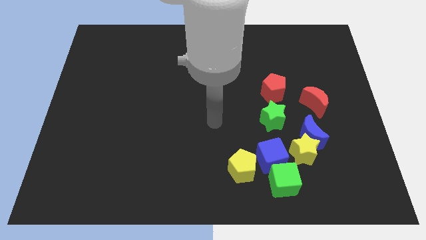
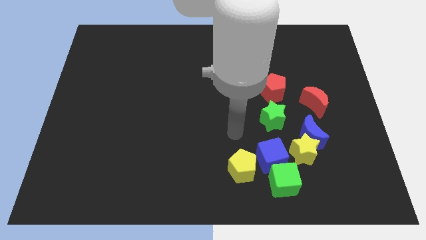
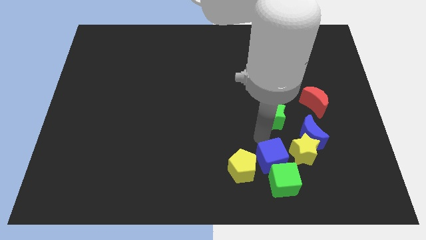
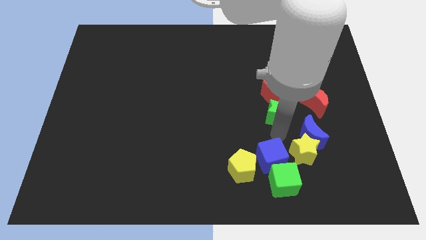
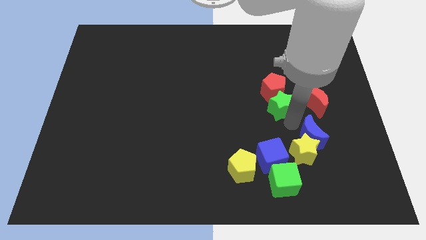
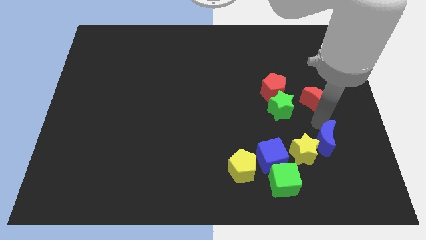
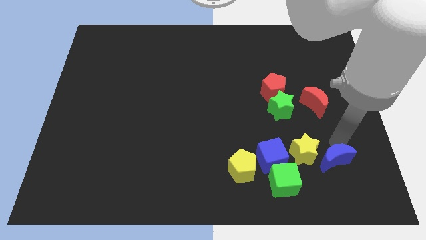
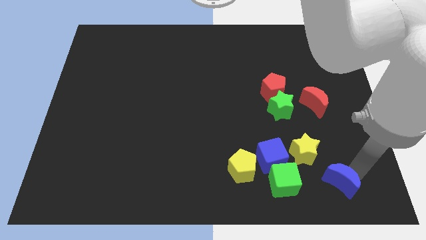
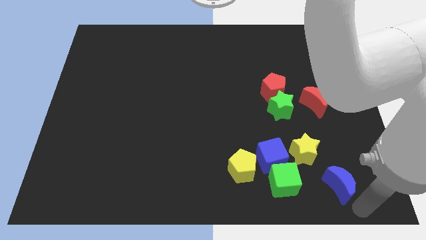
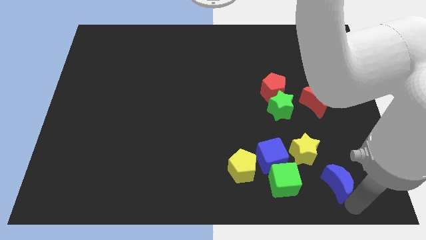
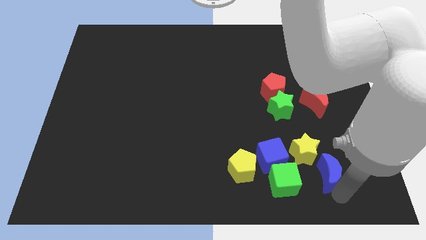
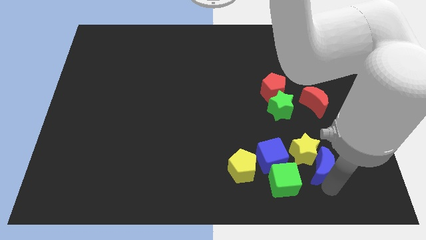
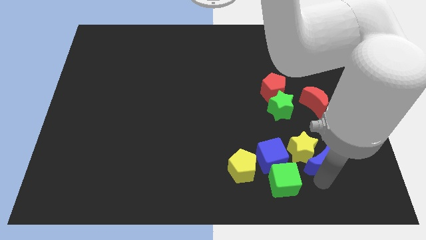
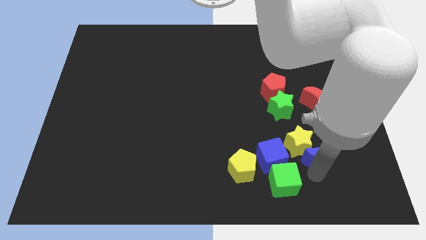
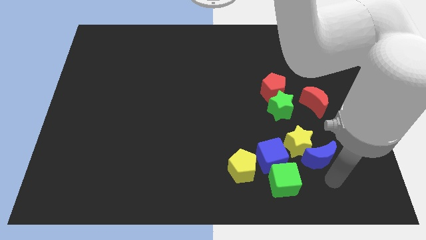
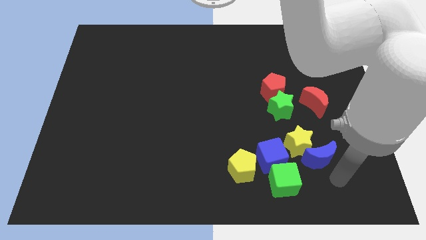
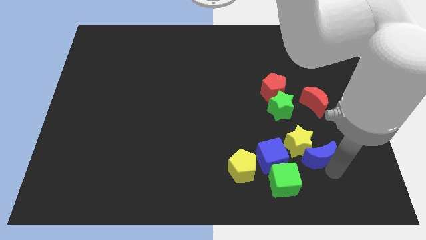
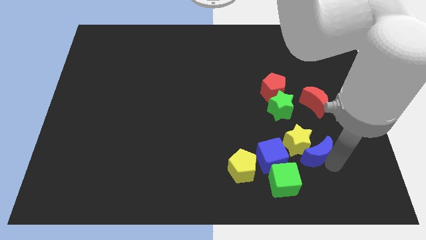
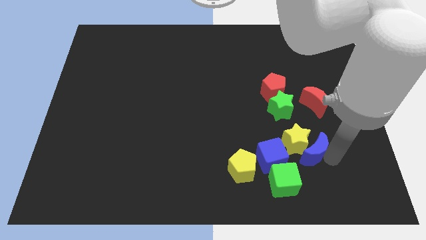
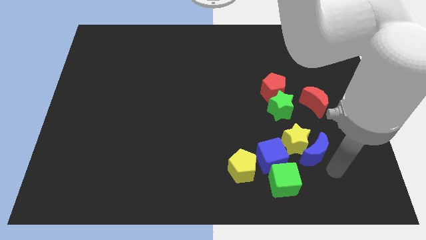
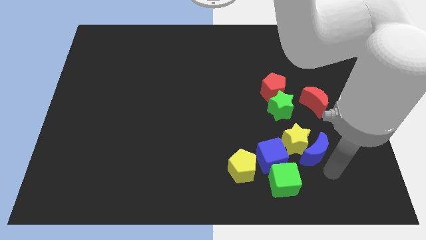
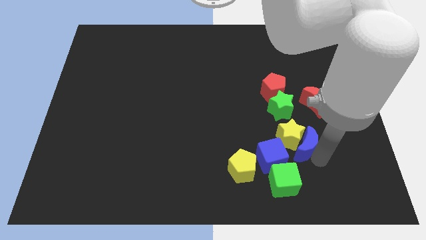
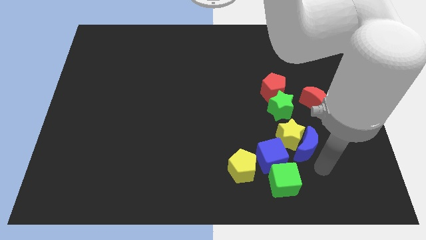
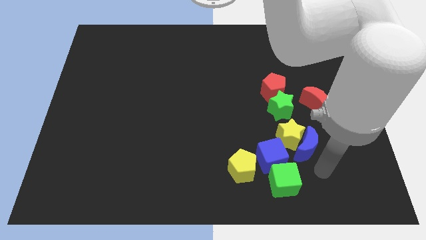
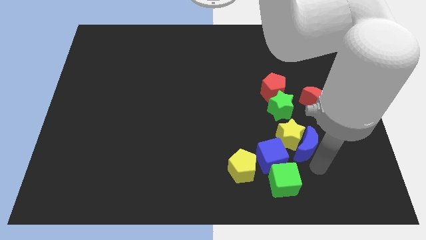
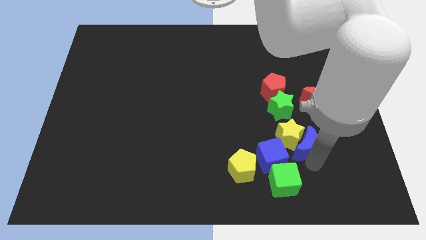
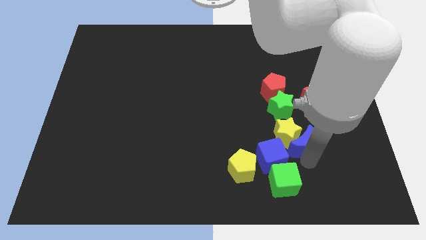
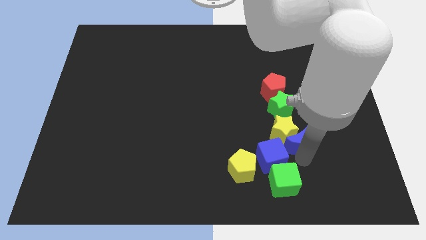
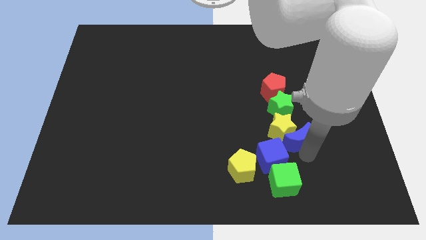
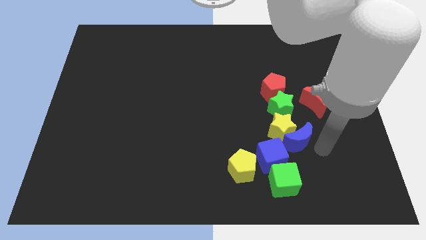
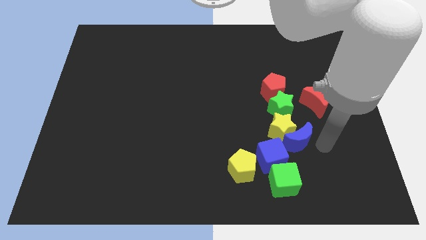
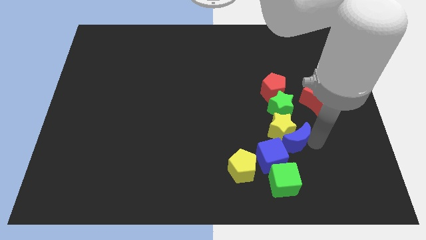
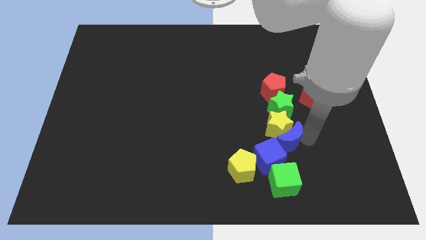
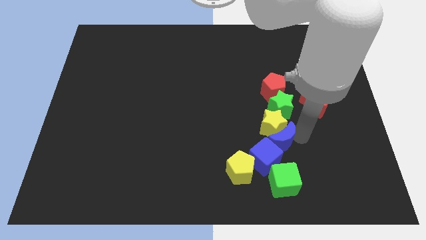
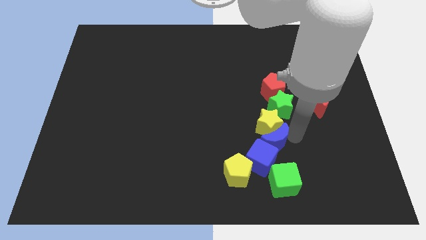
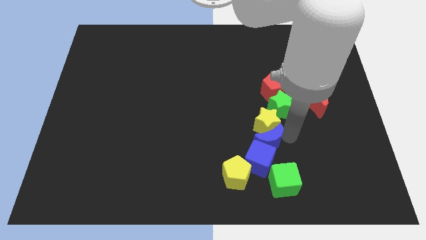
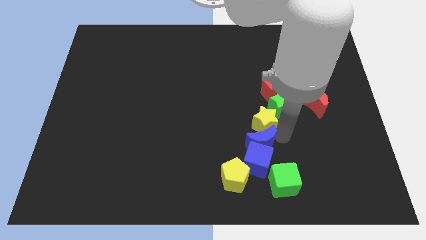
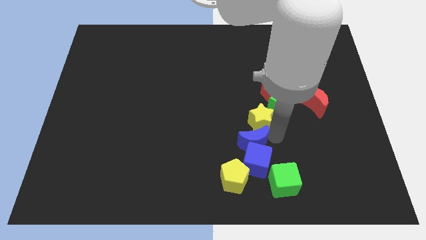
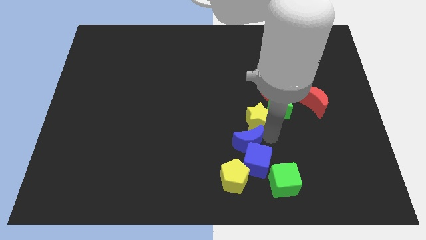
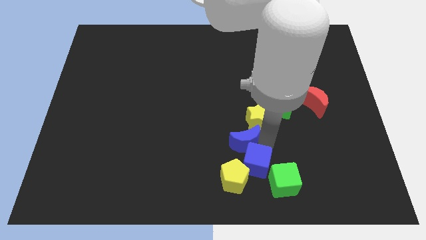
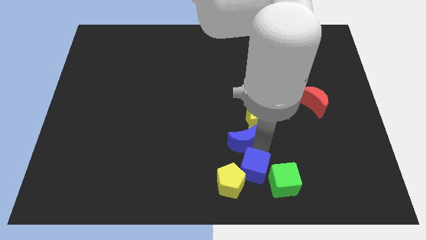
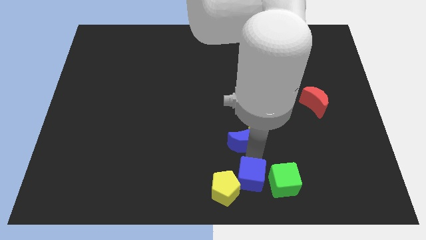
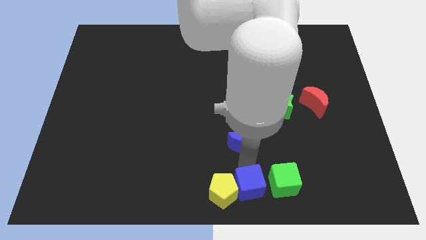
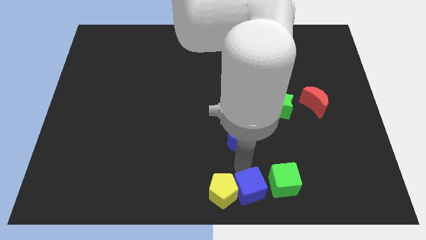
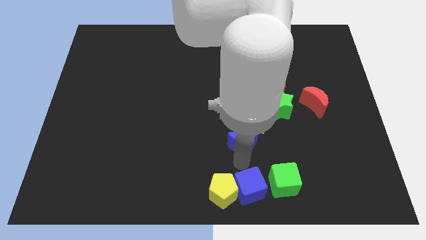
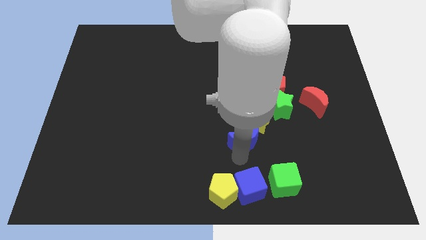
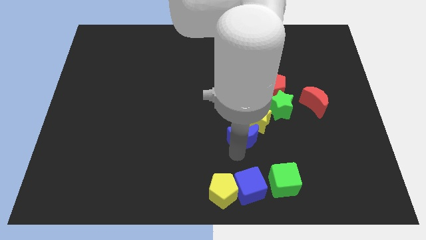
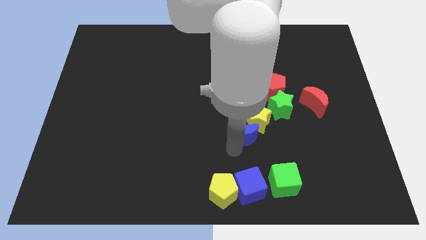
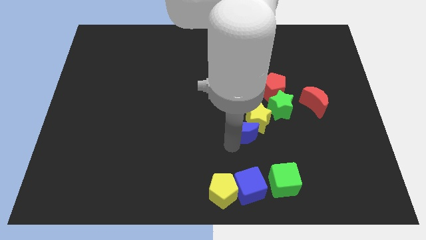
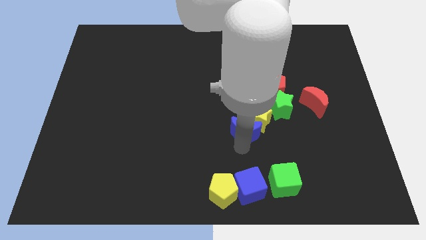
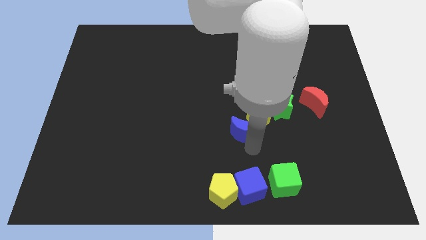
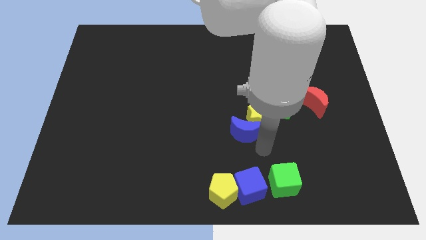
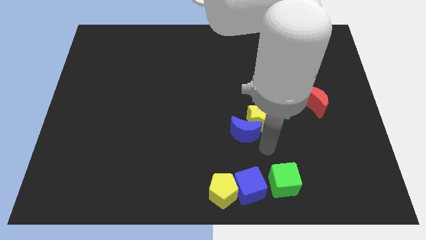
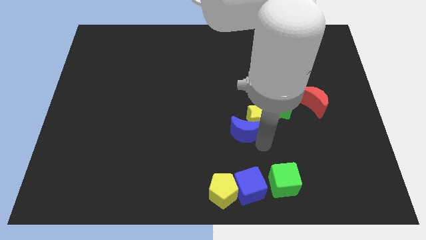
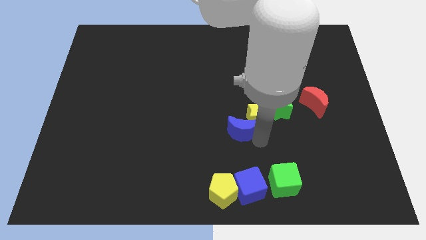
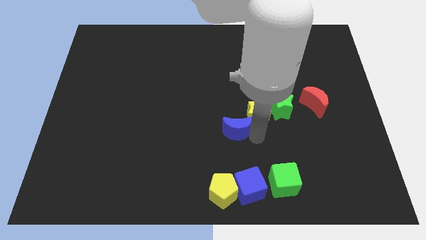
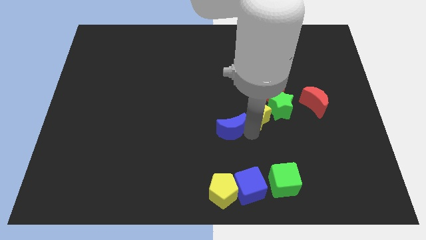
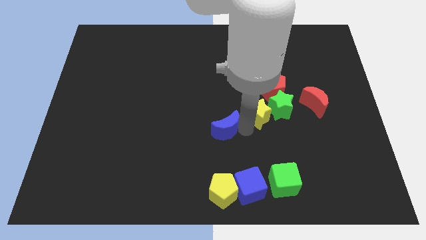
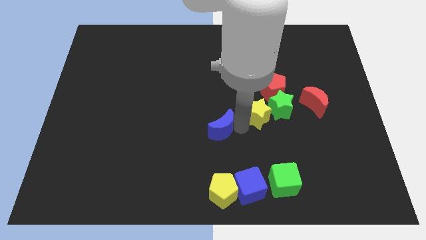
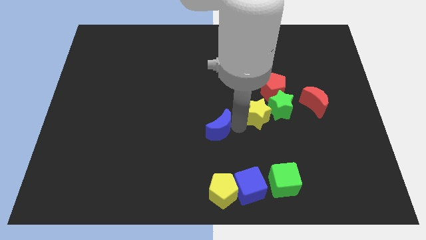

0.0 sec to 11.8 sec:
slide the blue moon to the left

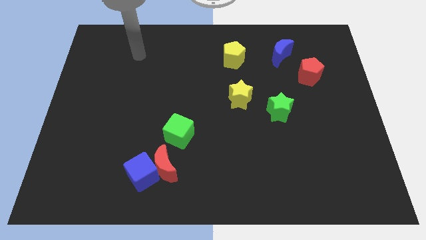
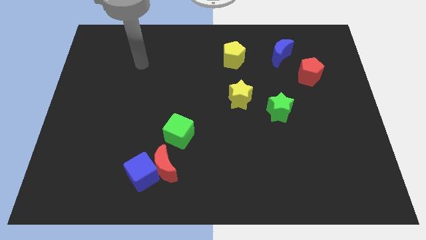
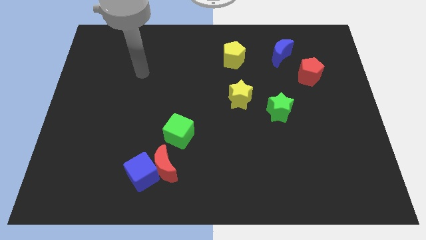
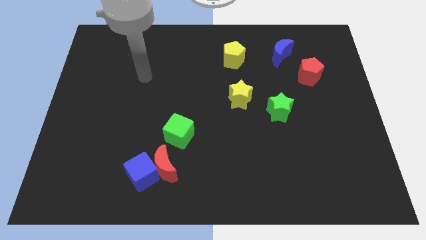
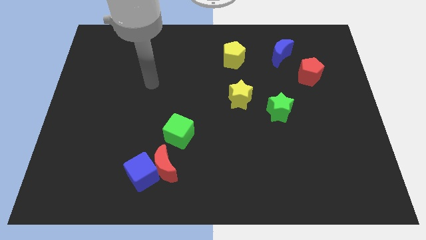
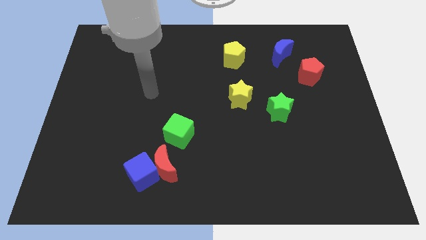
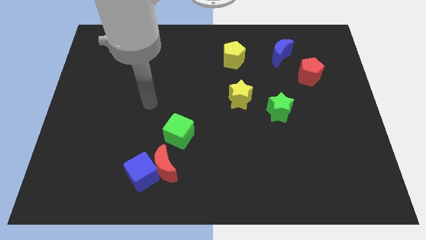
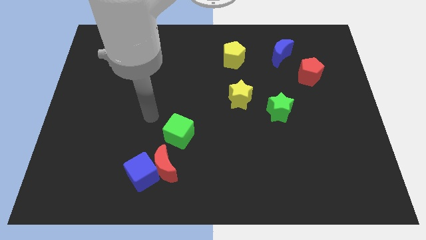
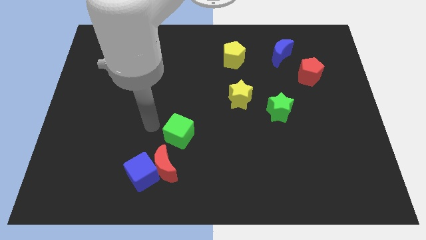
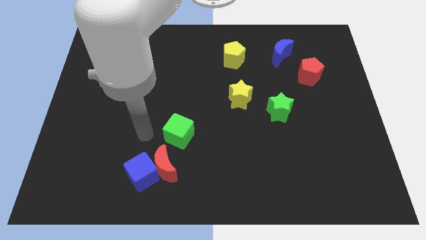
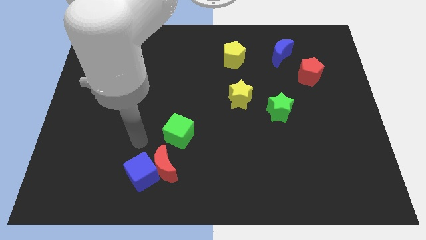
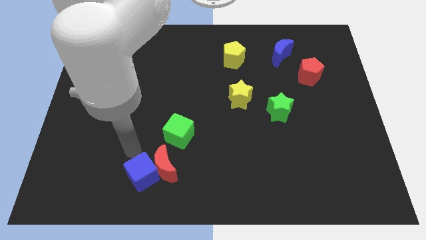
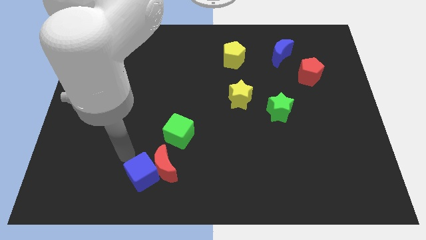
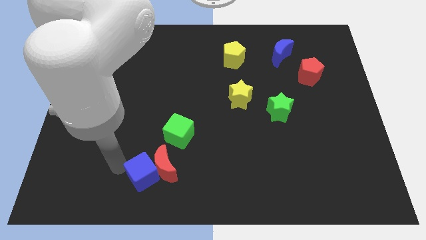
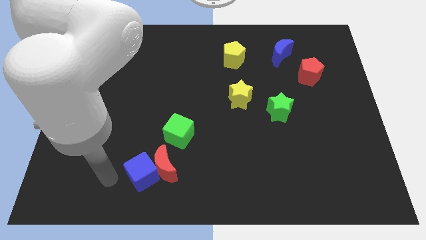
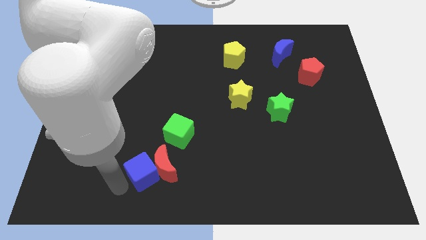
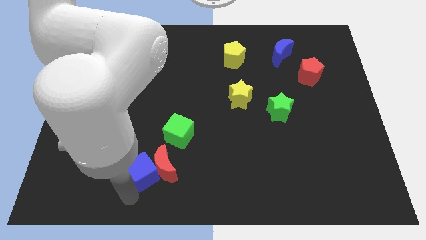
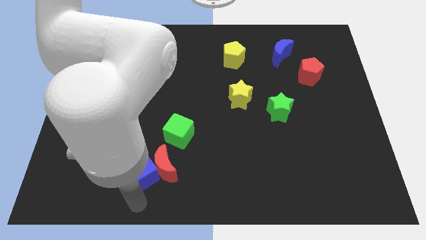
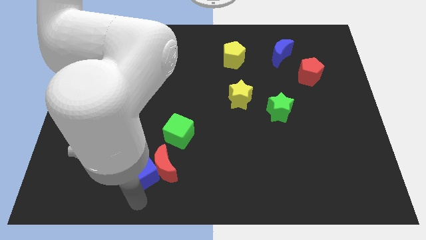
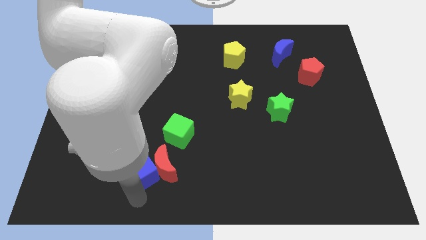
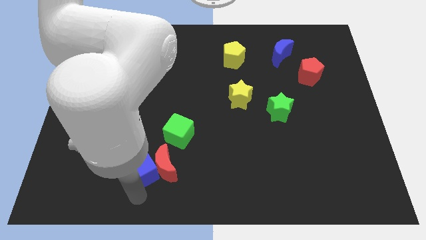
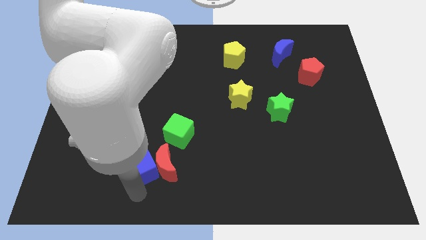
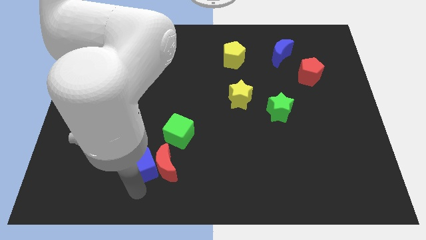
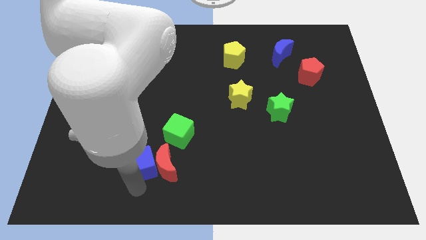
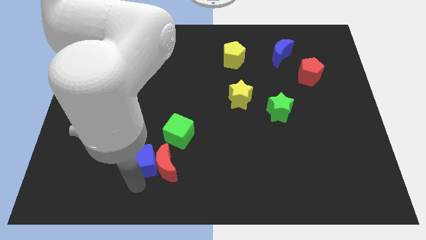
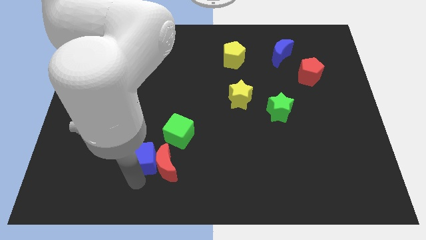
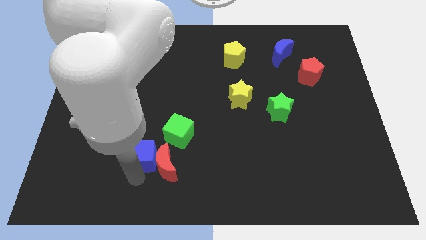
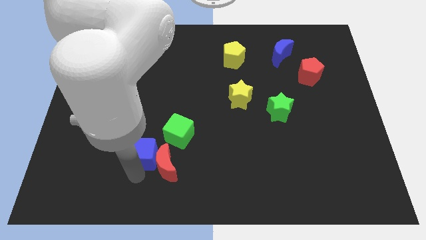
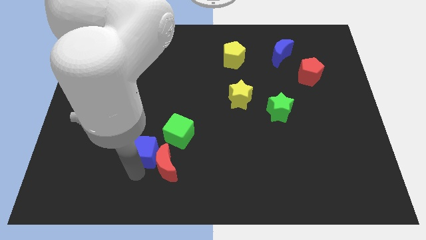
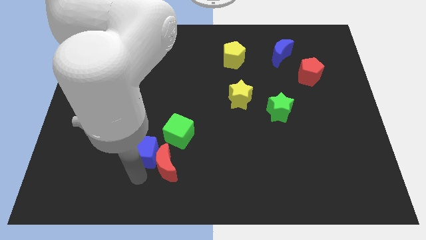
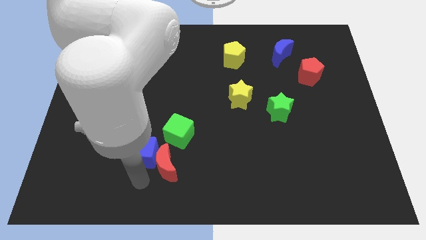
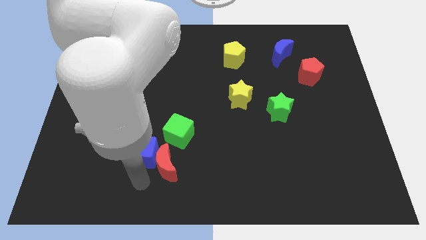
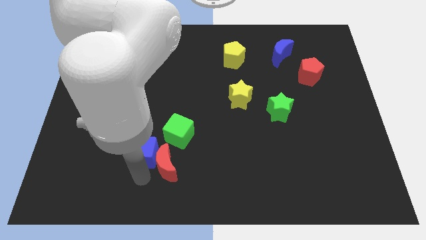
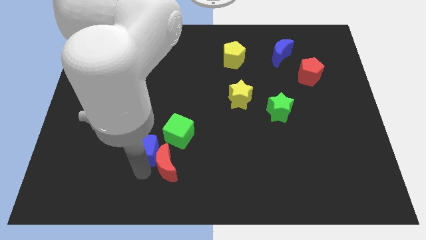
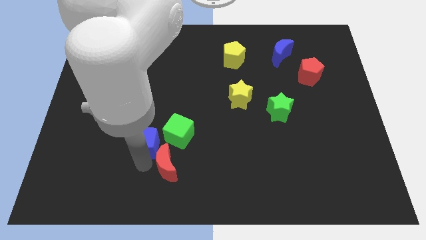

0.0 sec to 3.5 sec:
move the blue cube upwards somewhat
